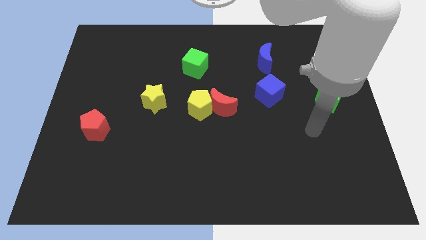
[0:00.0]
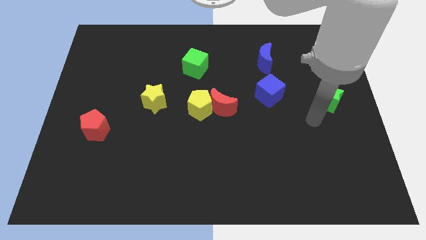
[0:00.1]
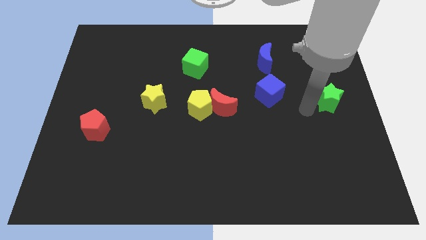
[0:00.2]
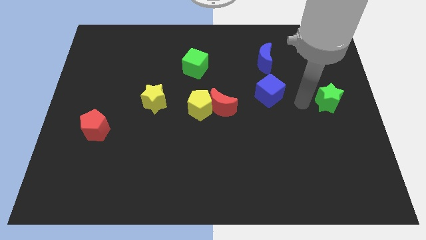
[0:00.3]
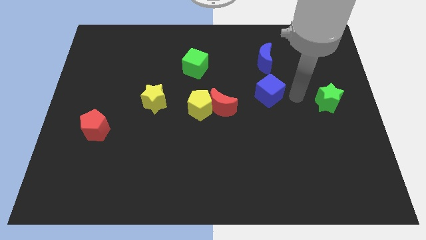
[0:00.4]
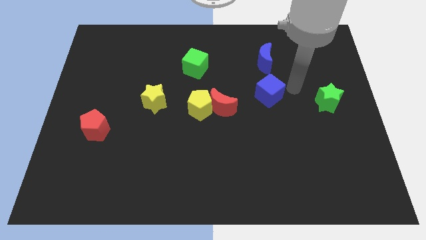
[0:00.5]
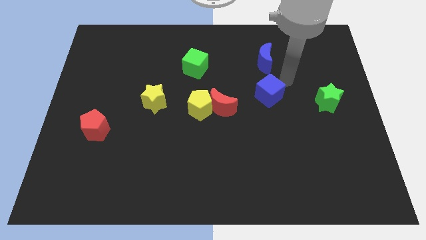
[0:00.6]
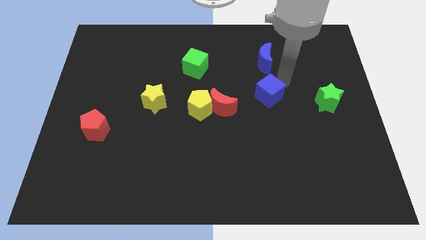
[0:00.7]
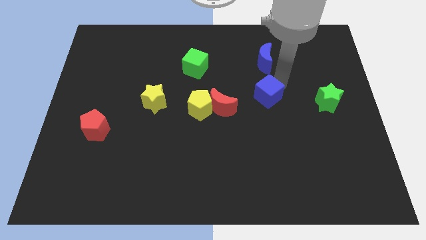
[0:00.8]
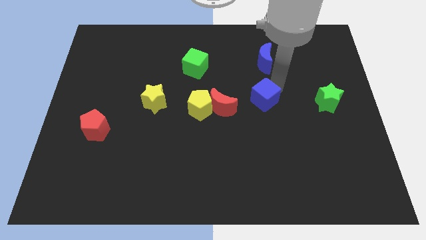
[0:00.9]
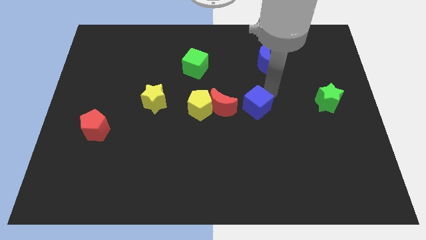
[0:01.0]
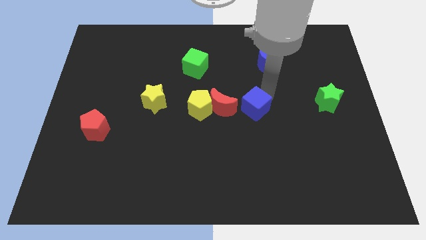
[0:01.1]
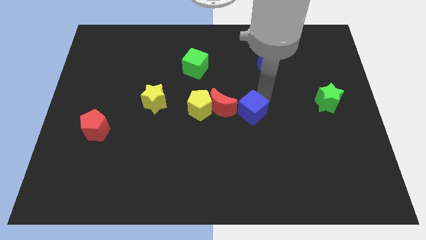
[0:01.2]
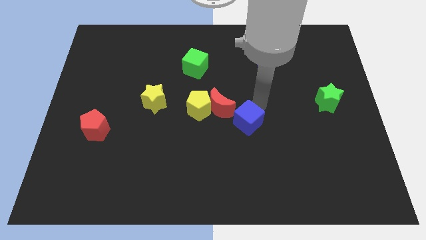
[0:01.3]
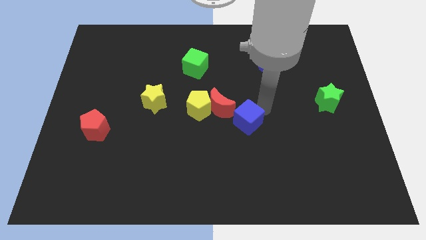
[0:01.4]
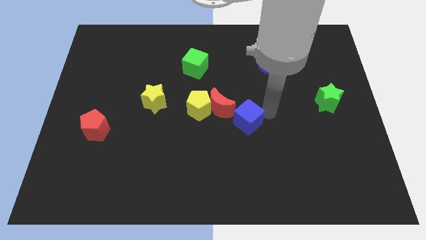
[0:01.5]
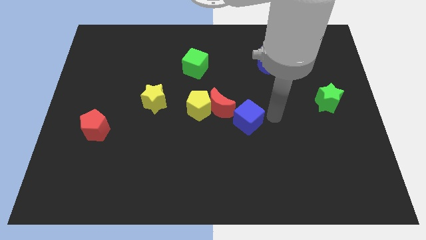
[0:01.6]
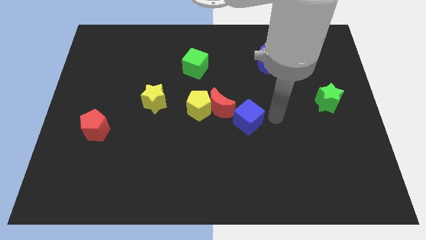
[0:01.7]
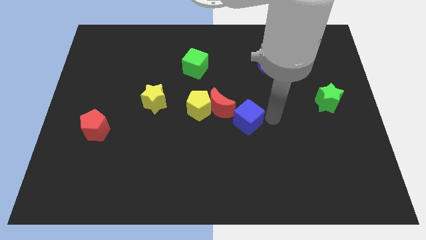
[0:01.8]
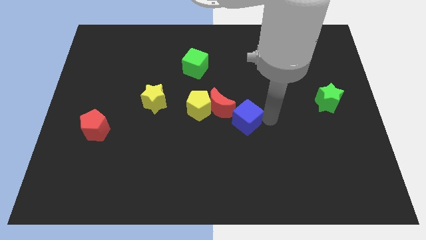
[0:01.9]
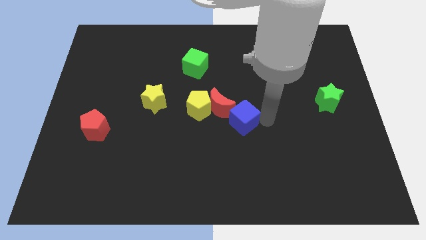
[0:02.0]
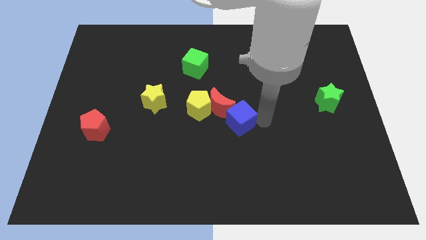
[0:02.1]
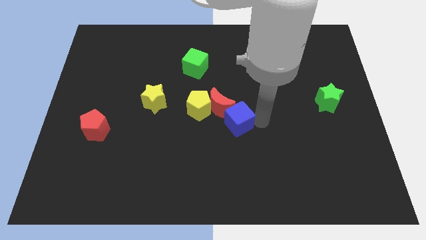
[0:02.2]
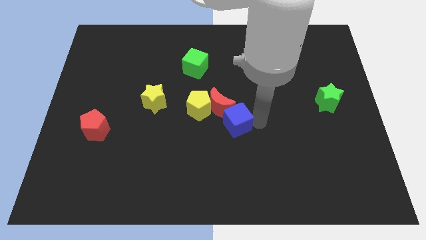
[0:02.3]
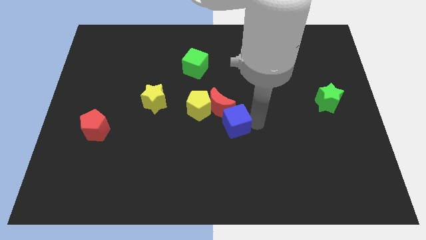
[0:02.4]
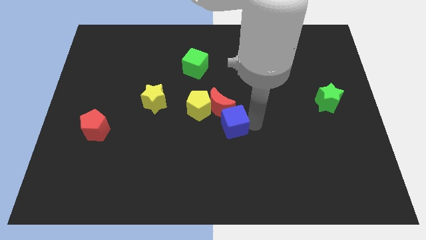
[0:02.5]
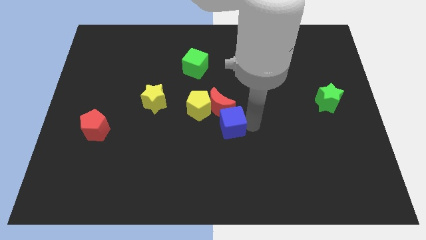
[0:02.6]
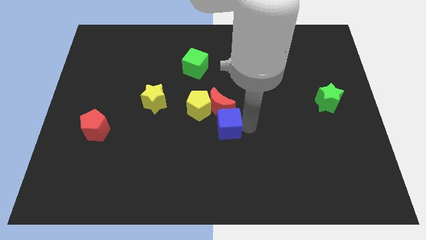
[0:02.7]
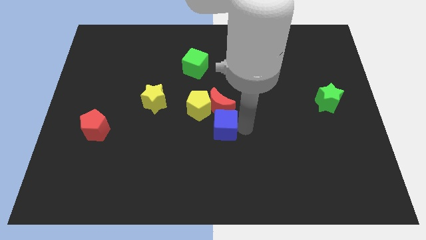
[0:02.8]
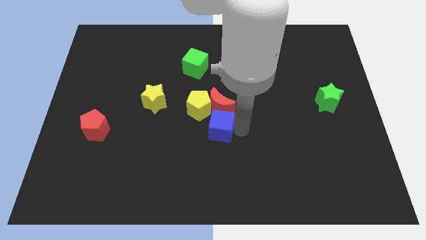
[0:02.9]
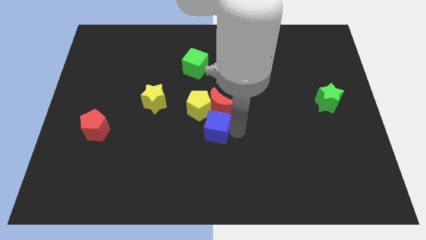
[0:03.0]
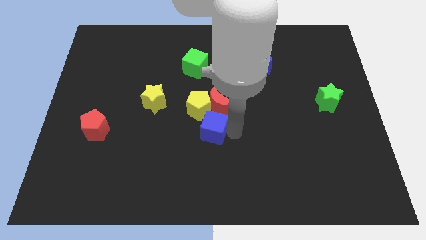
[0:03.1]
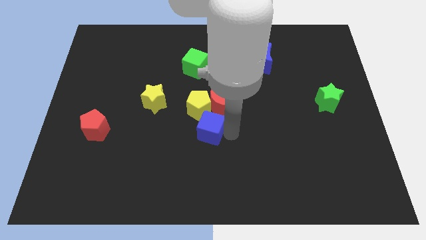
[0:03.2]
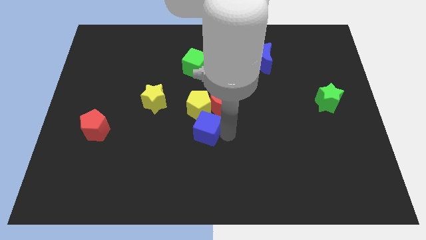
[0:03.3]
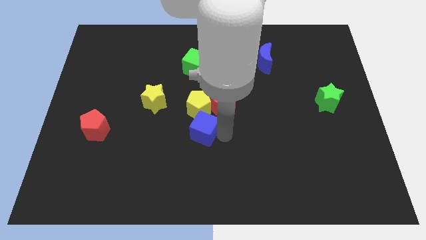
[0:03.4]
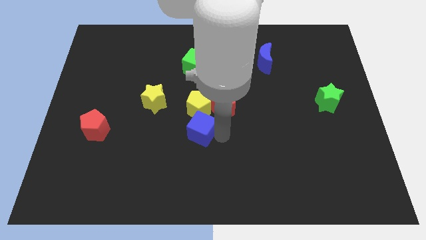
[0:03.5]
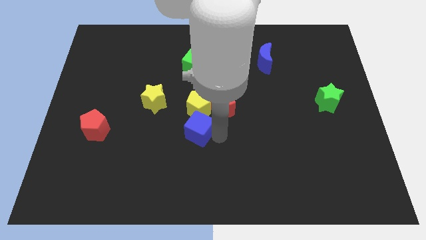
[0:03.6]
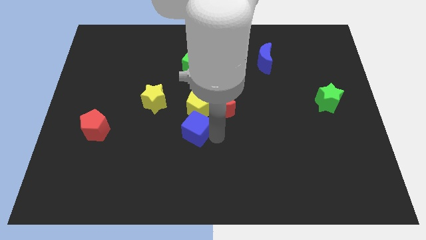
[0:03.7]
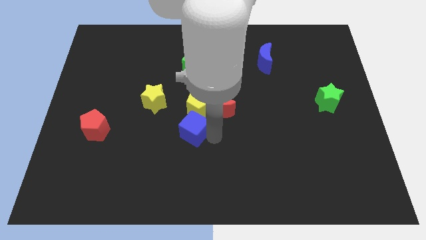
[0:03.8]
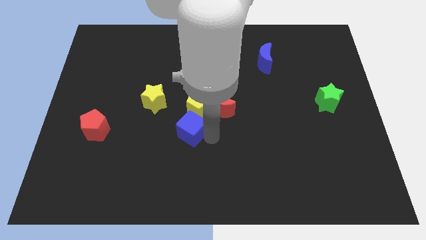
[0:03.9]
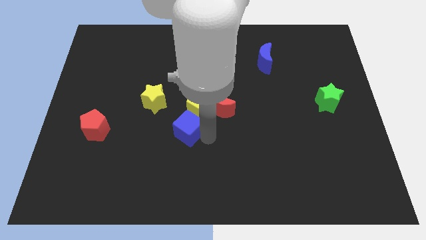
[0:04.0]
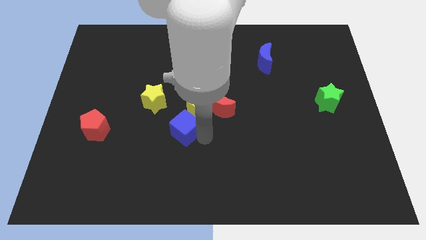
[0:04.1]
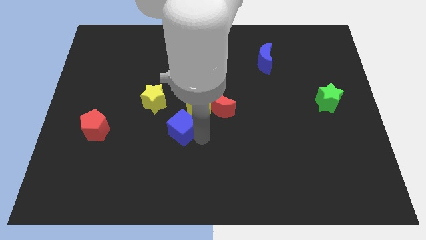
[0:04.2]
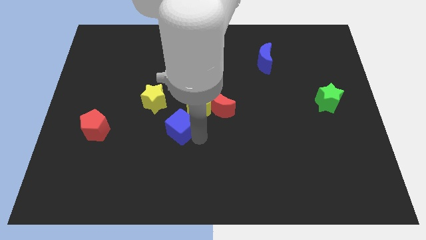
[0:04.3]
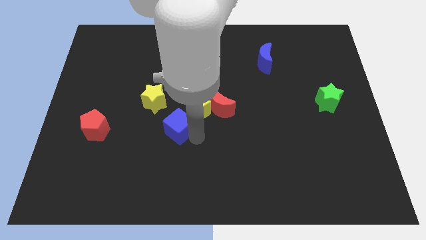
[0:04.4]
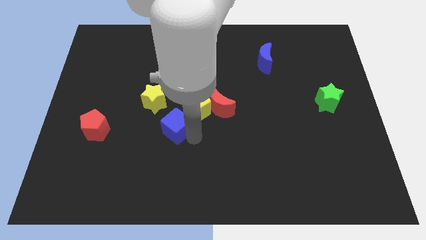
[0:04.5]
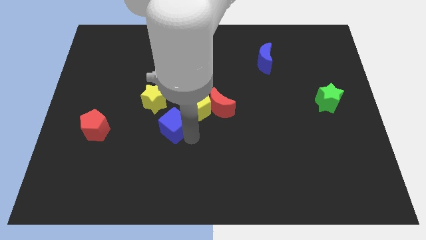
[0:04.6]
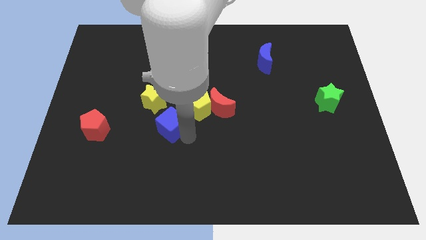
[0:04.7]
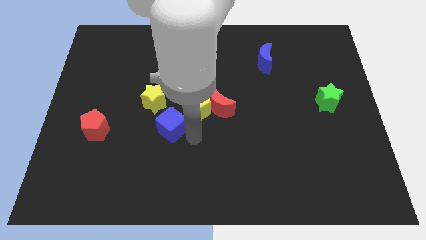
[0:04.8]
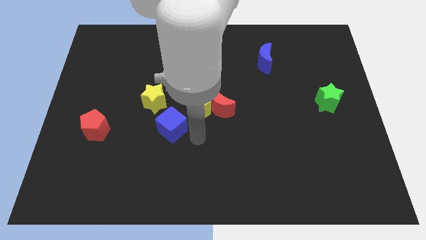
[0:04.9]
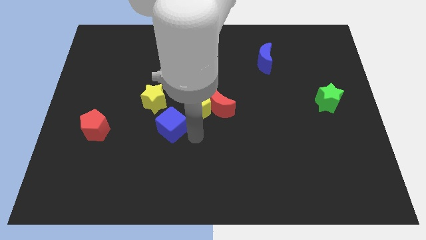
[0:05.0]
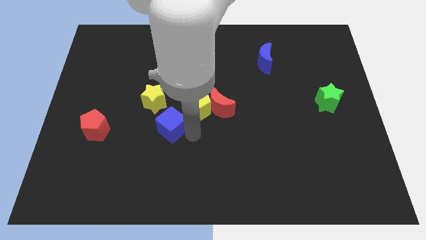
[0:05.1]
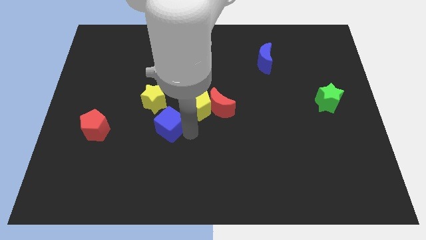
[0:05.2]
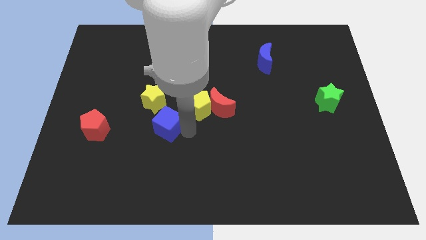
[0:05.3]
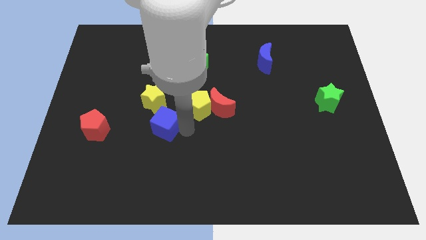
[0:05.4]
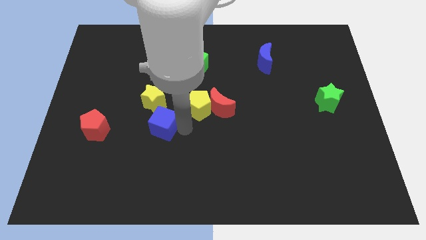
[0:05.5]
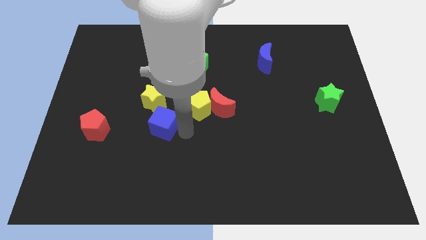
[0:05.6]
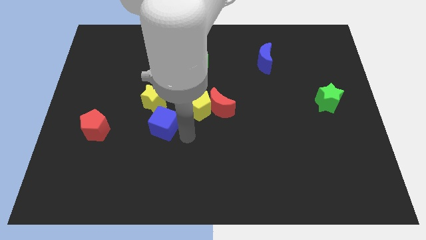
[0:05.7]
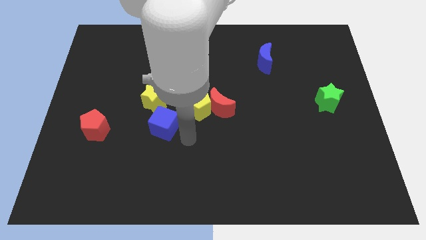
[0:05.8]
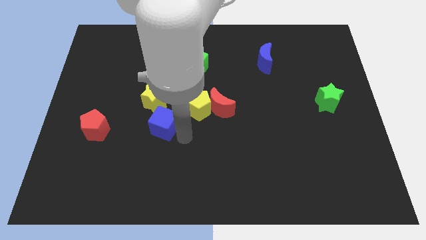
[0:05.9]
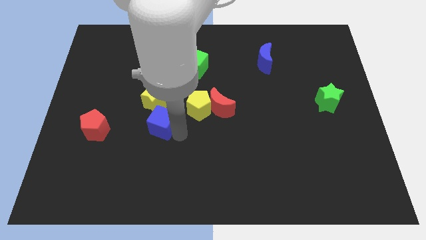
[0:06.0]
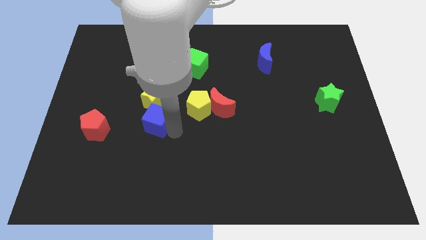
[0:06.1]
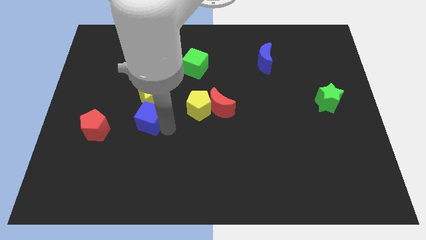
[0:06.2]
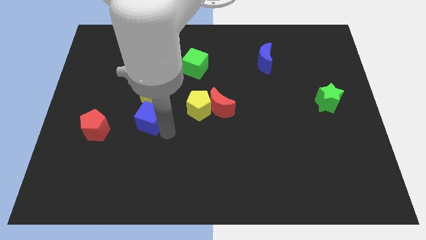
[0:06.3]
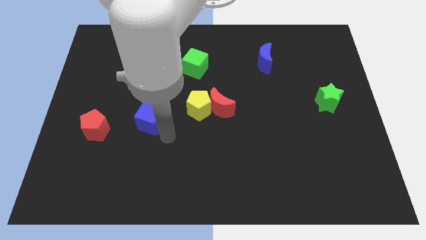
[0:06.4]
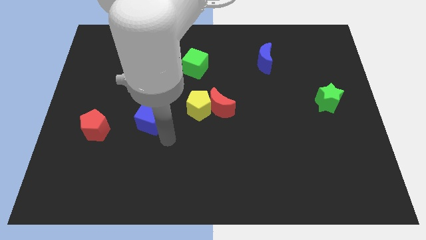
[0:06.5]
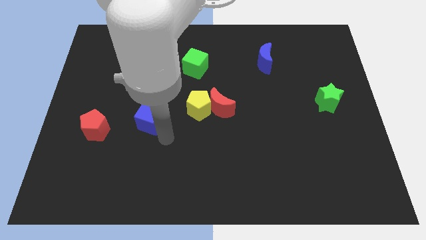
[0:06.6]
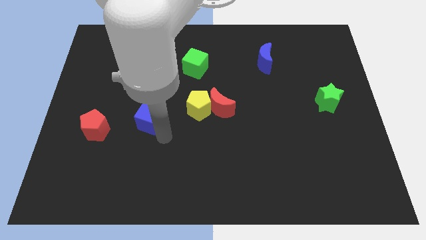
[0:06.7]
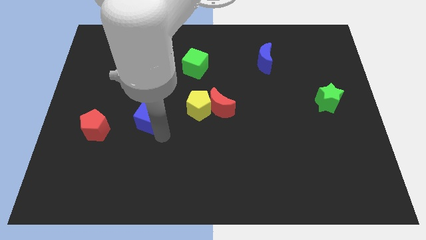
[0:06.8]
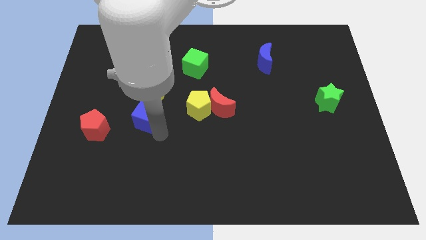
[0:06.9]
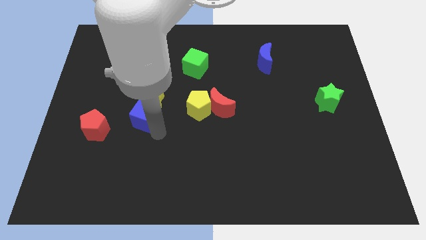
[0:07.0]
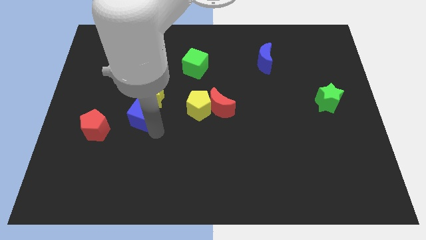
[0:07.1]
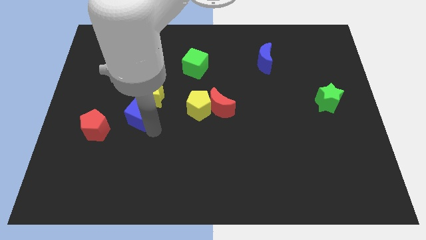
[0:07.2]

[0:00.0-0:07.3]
slide the blue cube to the top right side of the red pentagon

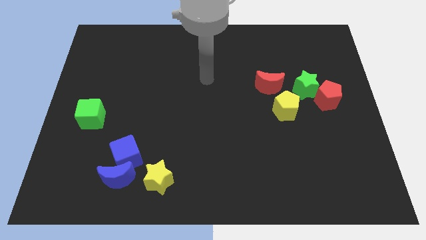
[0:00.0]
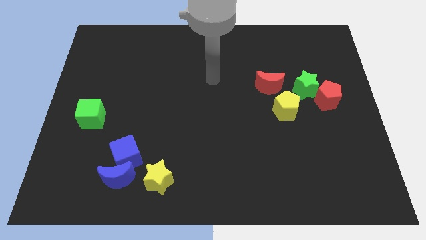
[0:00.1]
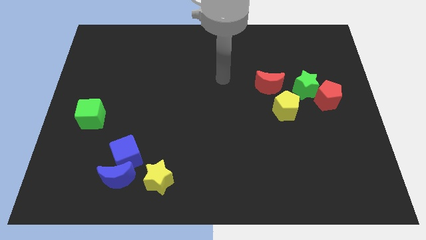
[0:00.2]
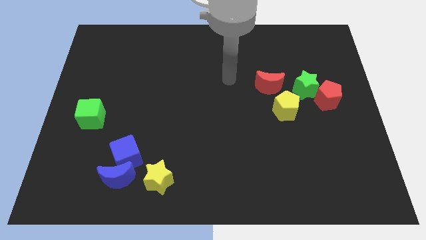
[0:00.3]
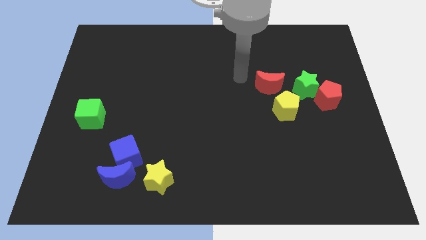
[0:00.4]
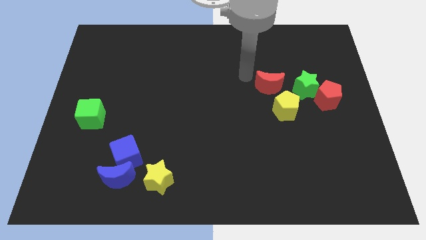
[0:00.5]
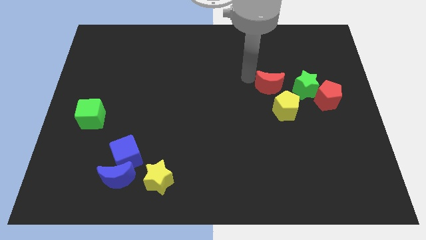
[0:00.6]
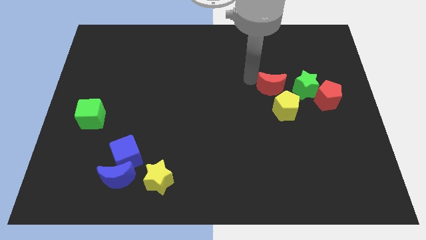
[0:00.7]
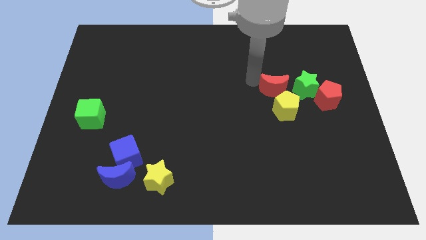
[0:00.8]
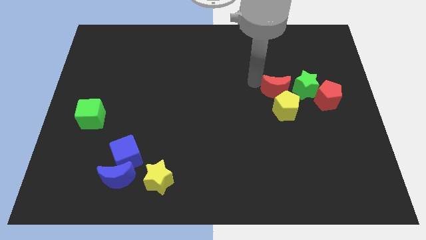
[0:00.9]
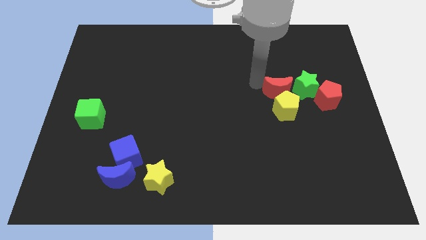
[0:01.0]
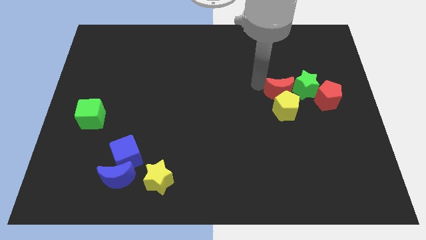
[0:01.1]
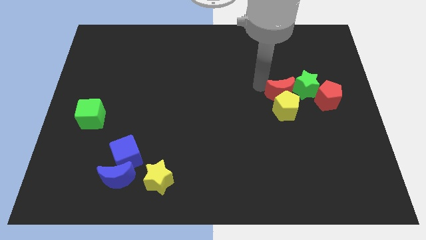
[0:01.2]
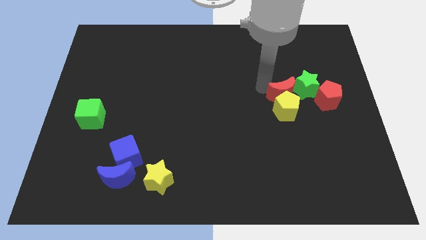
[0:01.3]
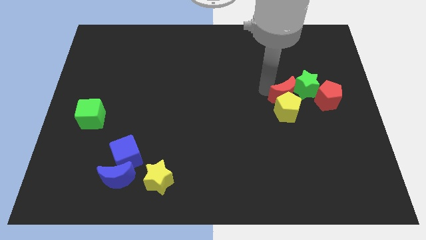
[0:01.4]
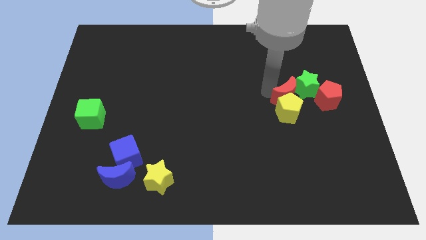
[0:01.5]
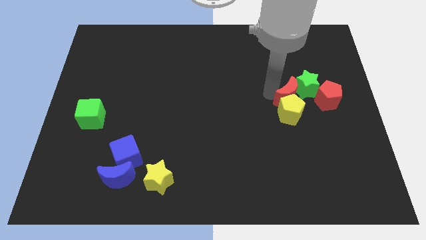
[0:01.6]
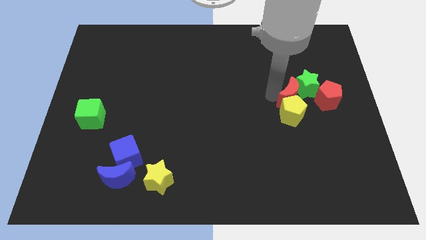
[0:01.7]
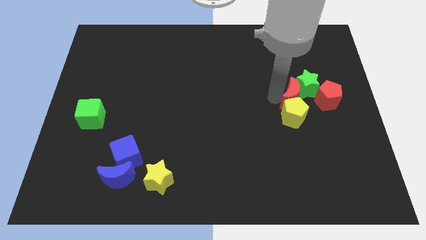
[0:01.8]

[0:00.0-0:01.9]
move the red moon to the bottom side of the green star
